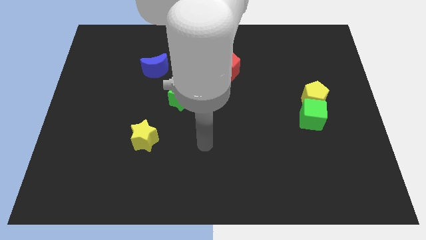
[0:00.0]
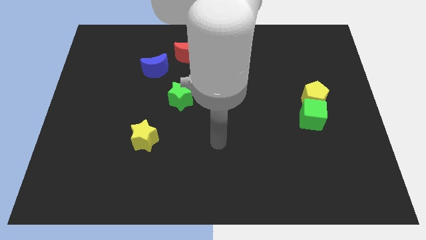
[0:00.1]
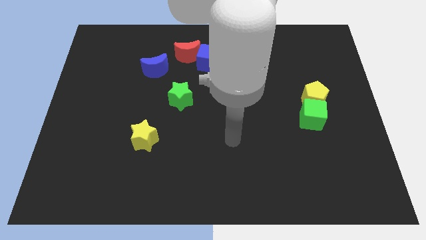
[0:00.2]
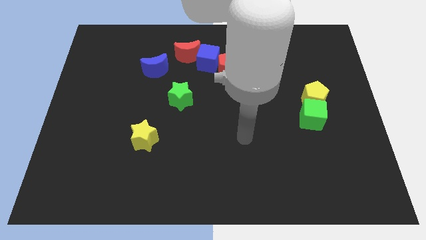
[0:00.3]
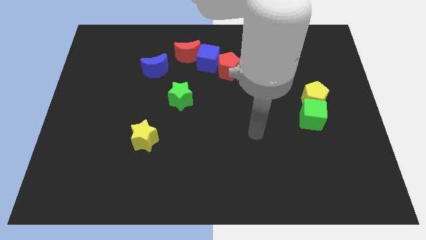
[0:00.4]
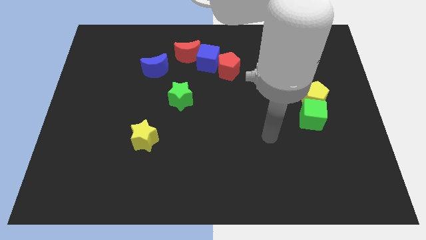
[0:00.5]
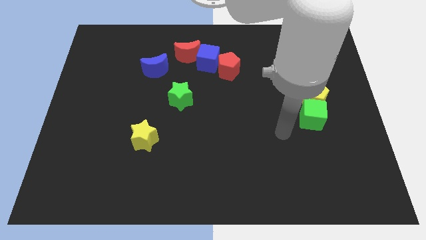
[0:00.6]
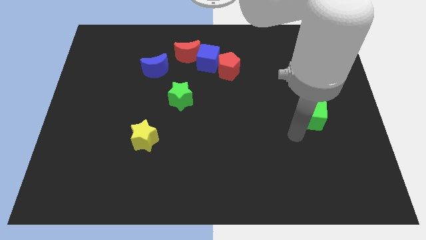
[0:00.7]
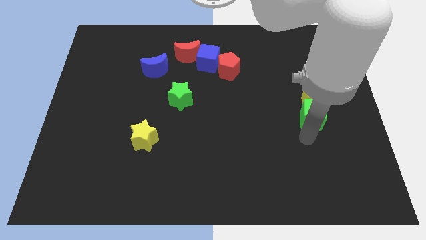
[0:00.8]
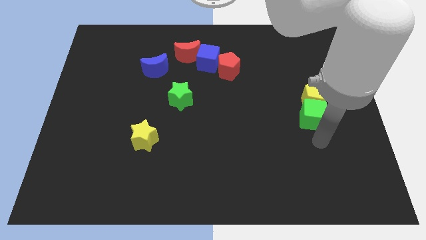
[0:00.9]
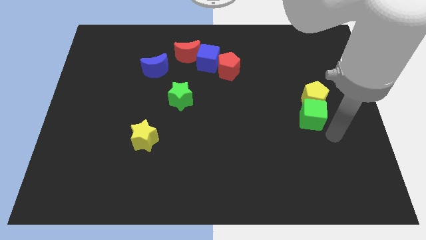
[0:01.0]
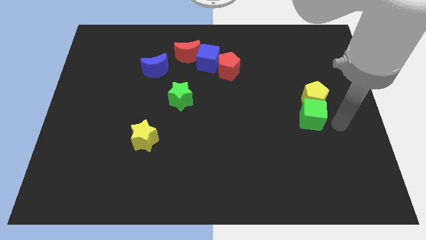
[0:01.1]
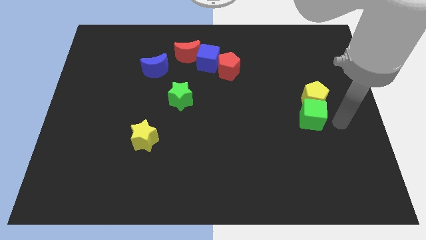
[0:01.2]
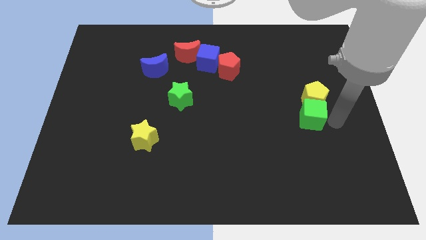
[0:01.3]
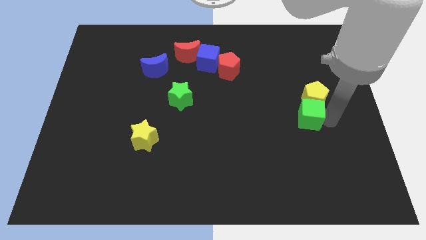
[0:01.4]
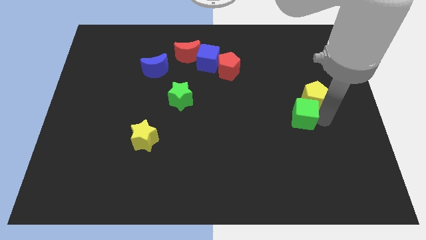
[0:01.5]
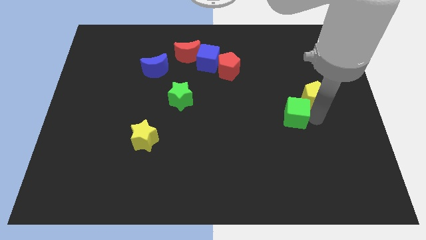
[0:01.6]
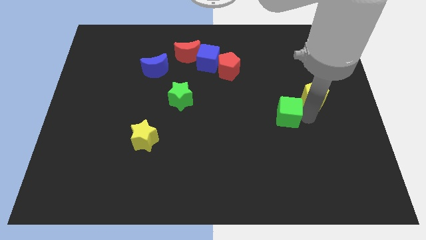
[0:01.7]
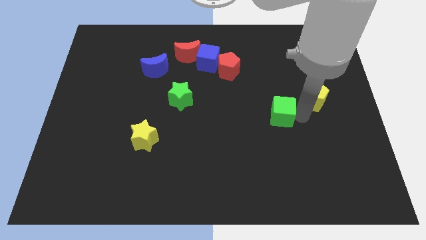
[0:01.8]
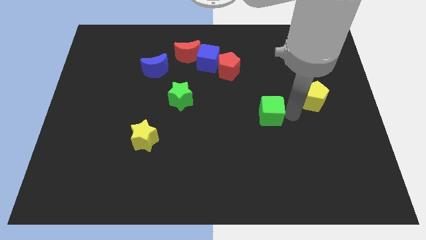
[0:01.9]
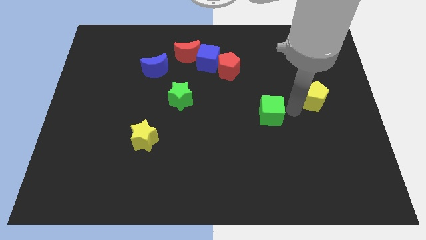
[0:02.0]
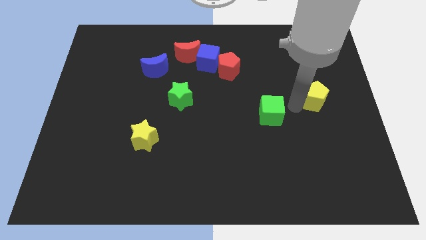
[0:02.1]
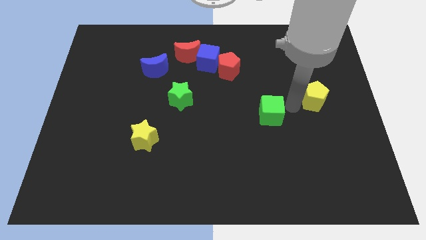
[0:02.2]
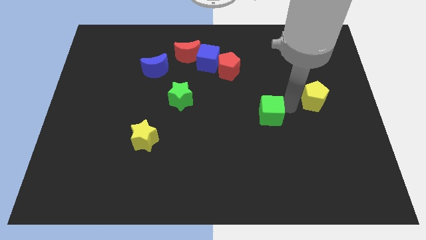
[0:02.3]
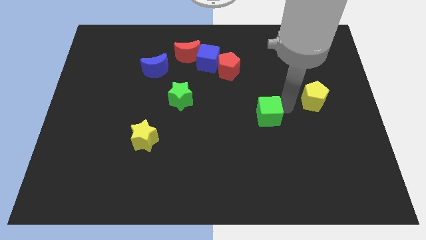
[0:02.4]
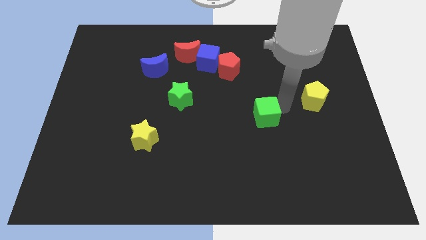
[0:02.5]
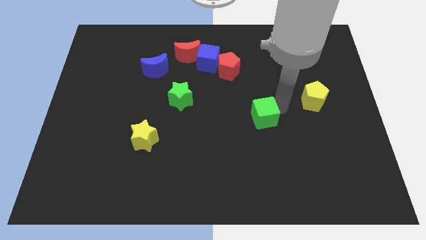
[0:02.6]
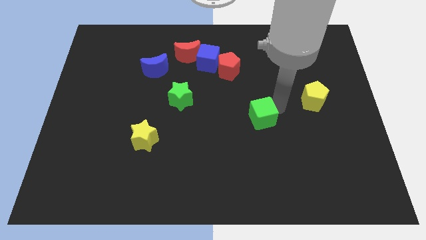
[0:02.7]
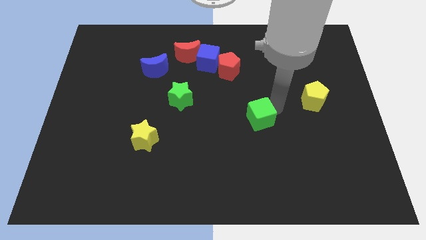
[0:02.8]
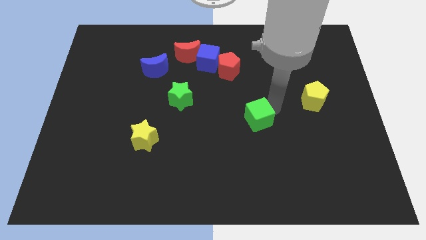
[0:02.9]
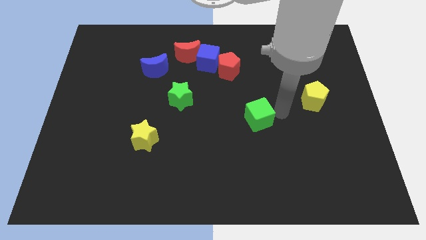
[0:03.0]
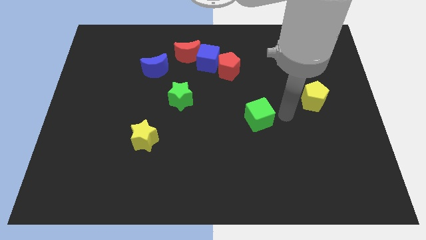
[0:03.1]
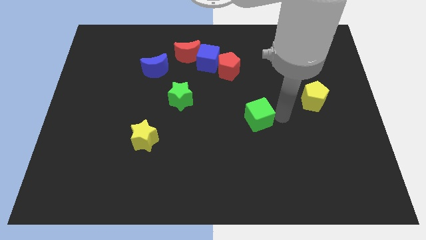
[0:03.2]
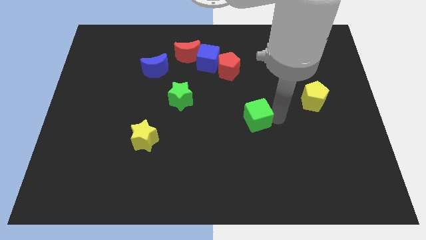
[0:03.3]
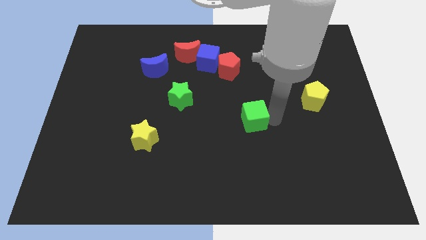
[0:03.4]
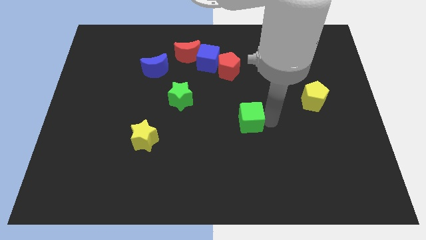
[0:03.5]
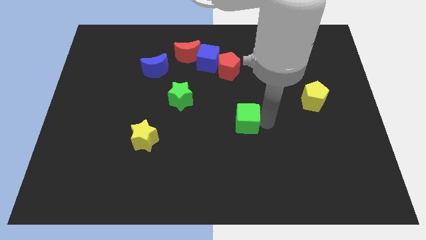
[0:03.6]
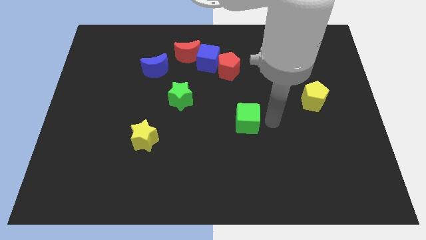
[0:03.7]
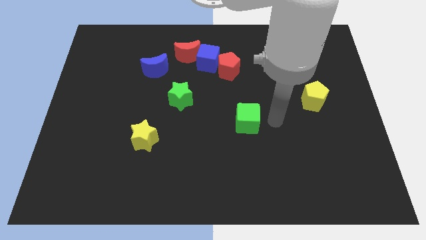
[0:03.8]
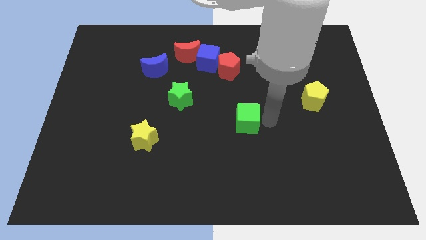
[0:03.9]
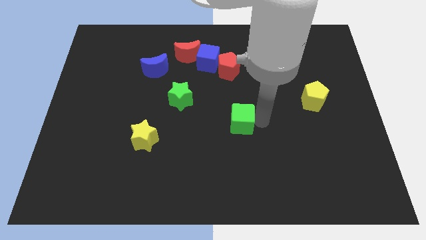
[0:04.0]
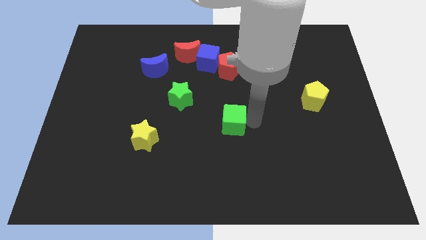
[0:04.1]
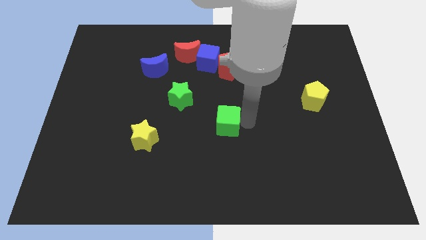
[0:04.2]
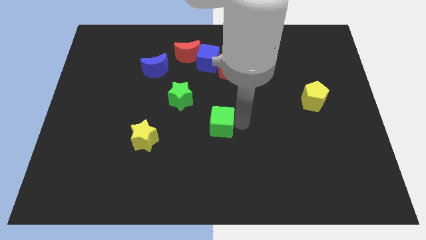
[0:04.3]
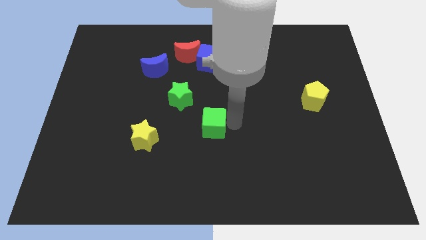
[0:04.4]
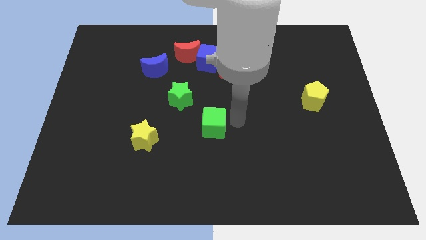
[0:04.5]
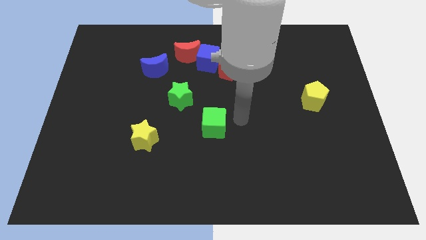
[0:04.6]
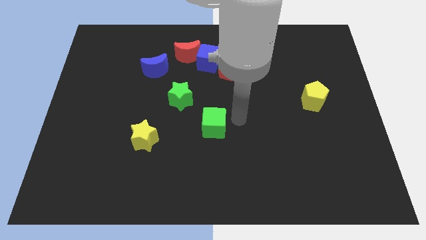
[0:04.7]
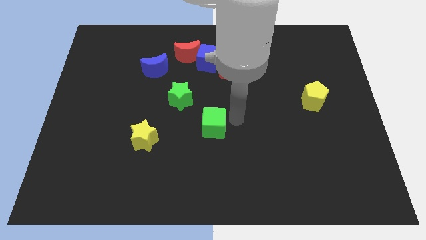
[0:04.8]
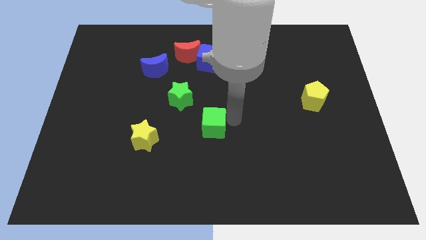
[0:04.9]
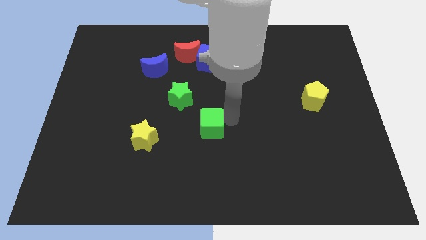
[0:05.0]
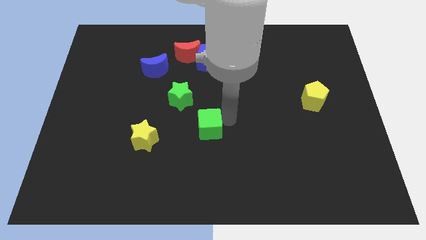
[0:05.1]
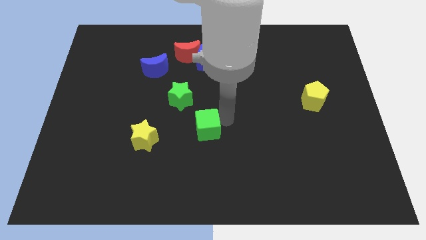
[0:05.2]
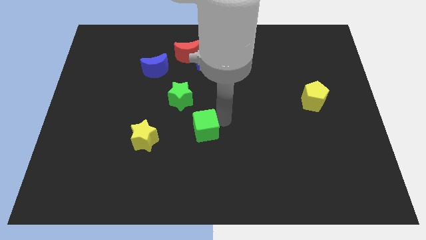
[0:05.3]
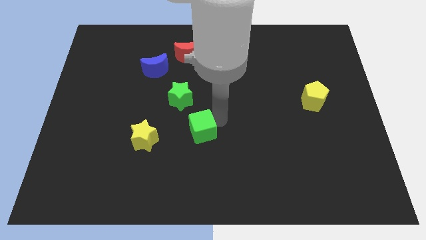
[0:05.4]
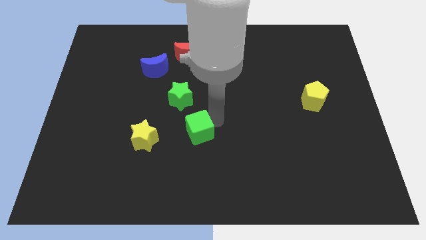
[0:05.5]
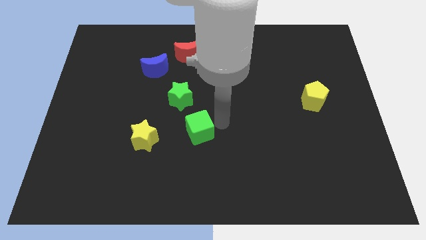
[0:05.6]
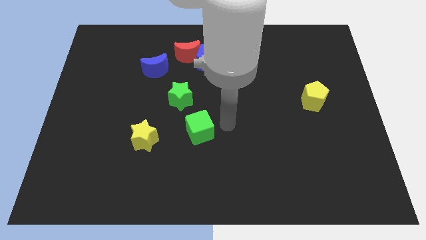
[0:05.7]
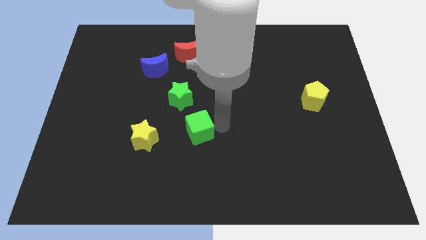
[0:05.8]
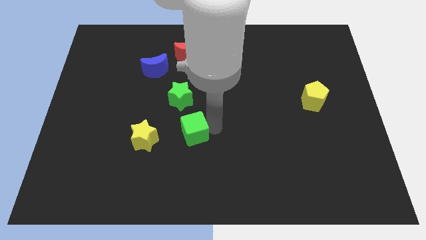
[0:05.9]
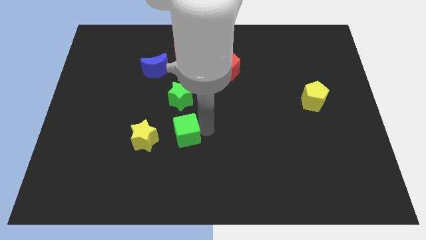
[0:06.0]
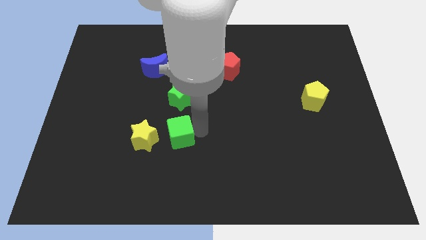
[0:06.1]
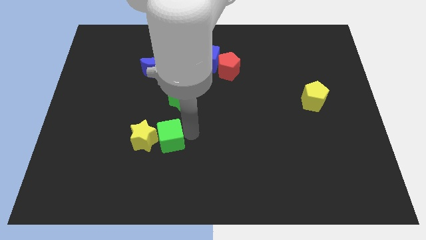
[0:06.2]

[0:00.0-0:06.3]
put the green cube close to the yellow star

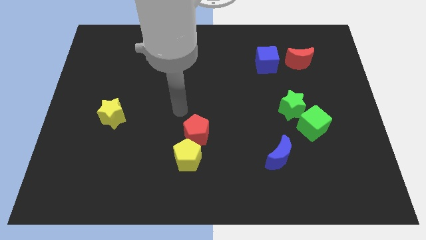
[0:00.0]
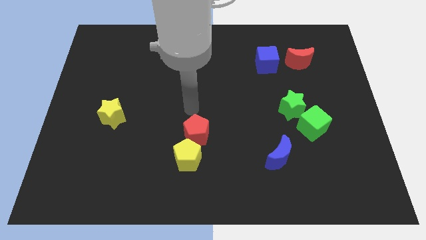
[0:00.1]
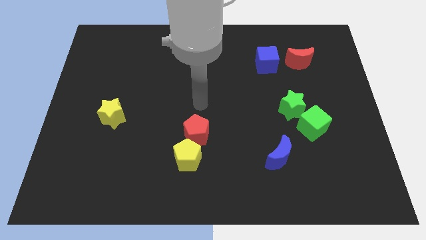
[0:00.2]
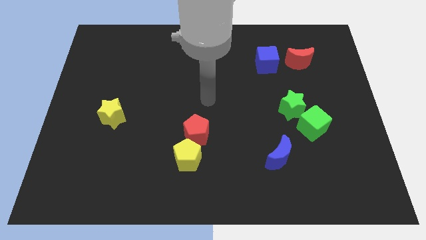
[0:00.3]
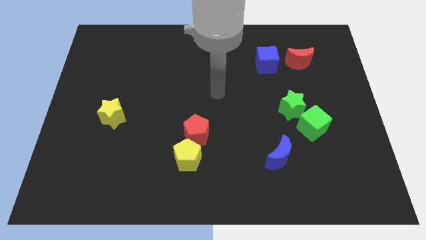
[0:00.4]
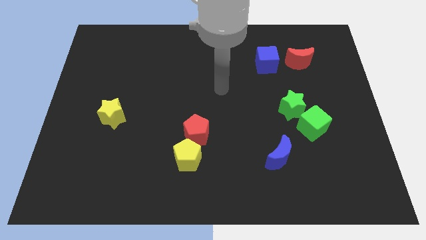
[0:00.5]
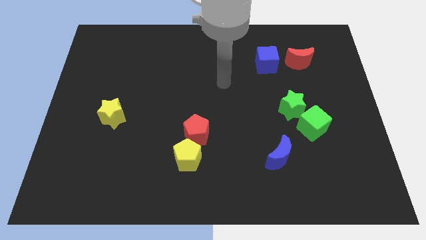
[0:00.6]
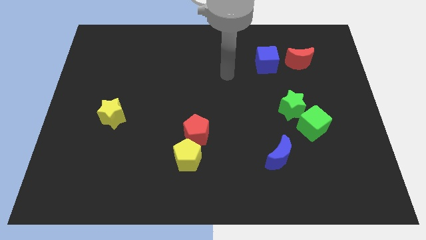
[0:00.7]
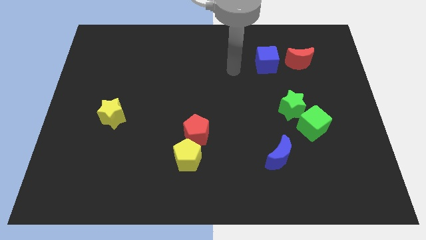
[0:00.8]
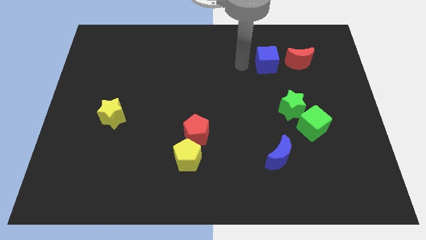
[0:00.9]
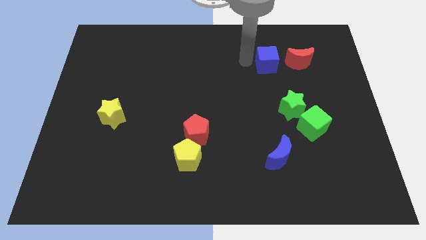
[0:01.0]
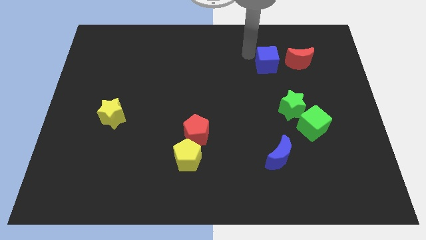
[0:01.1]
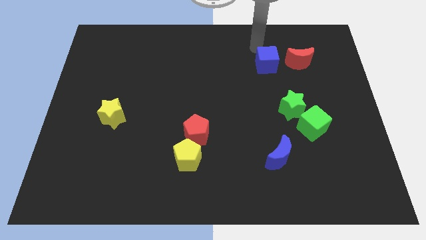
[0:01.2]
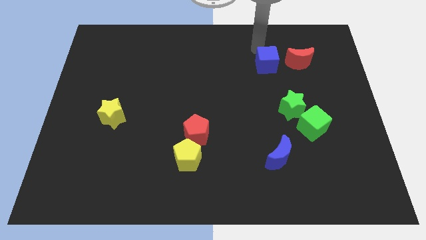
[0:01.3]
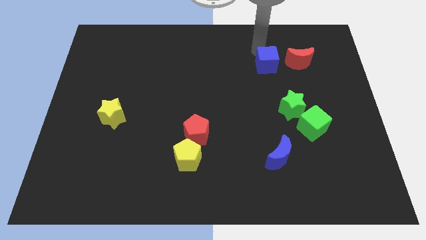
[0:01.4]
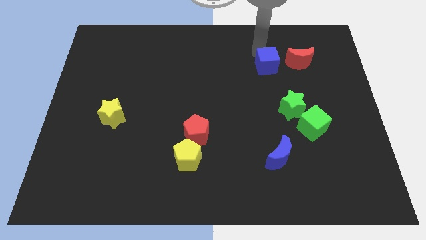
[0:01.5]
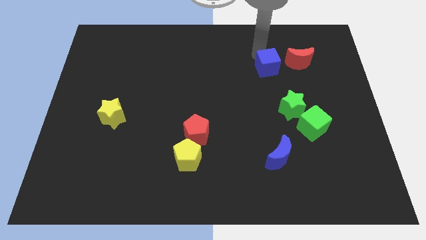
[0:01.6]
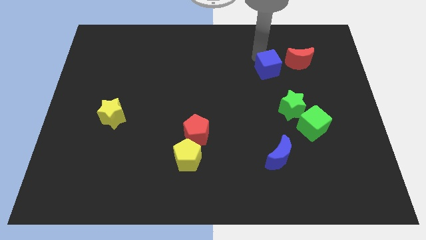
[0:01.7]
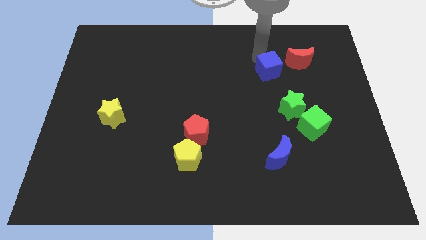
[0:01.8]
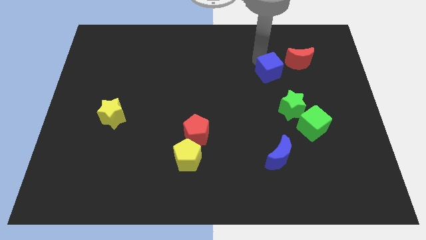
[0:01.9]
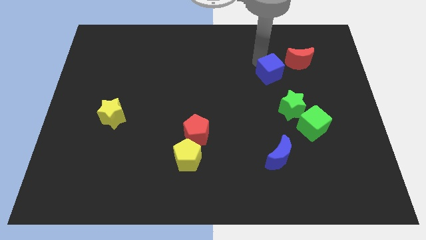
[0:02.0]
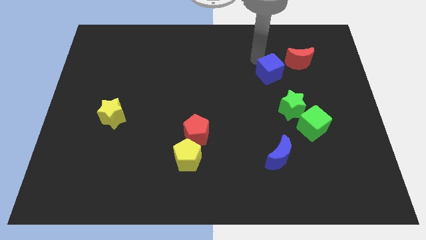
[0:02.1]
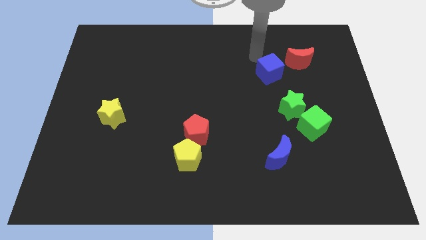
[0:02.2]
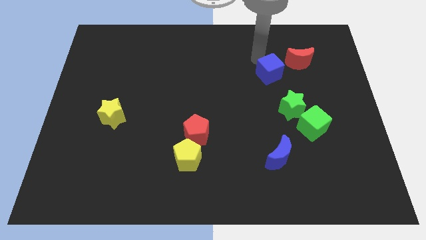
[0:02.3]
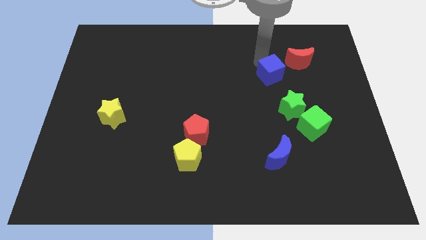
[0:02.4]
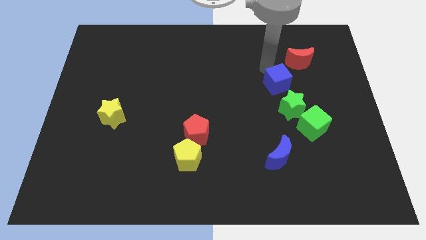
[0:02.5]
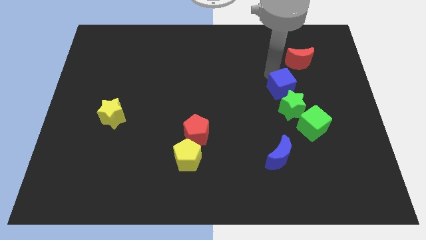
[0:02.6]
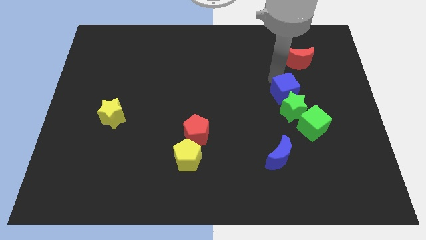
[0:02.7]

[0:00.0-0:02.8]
slide the blue cube to the green star
